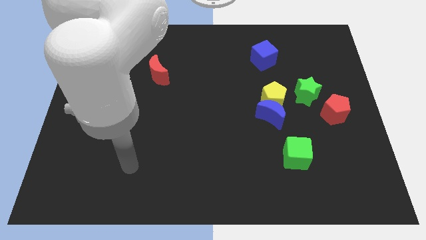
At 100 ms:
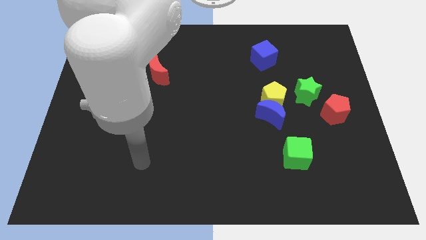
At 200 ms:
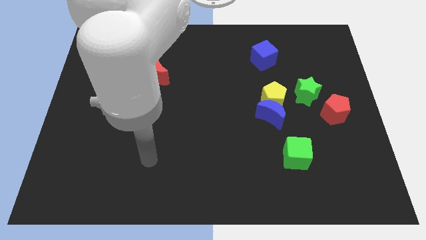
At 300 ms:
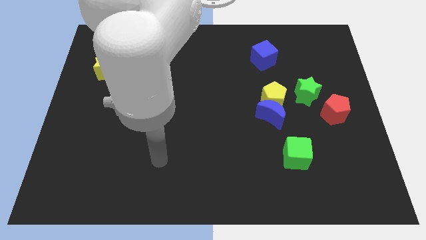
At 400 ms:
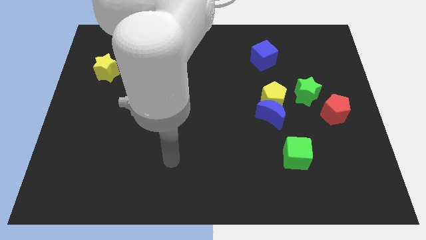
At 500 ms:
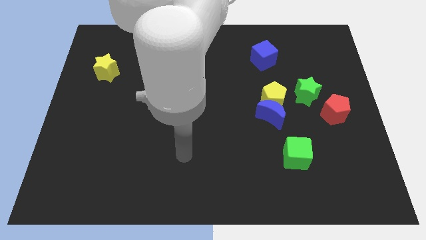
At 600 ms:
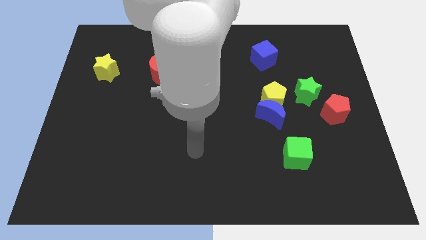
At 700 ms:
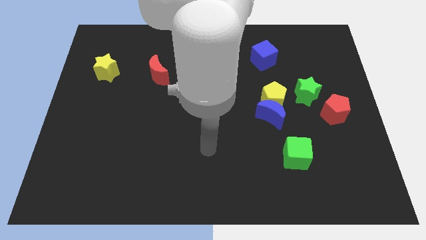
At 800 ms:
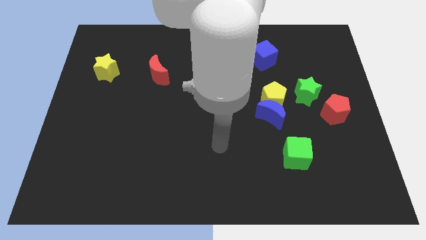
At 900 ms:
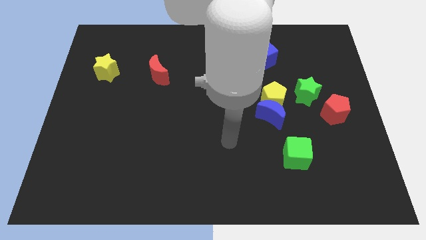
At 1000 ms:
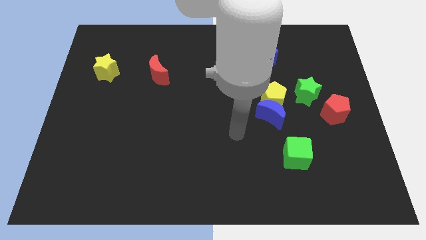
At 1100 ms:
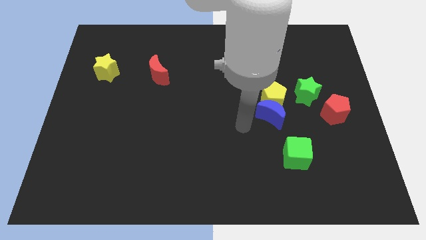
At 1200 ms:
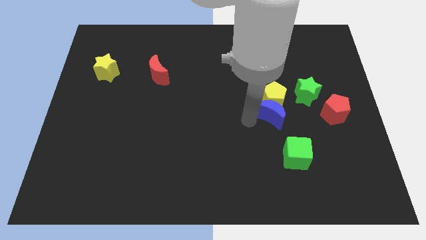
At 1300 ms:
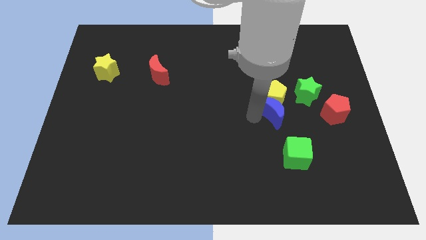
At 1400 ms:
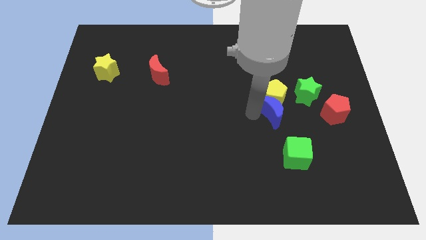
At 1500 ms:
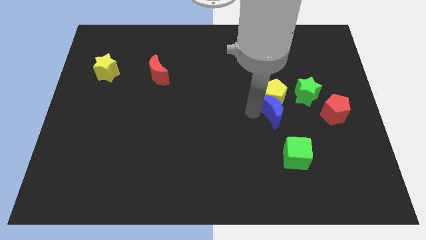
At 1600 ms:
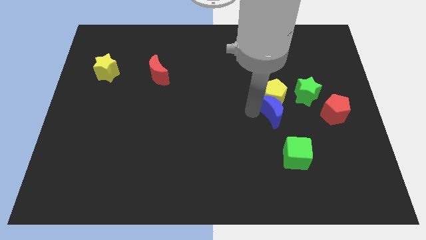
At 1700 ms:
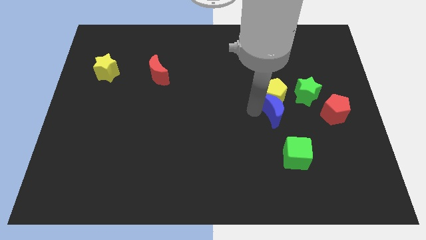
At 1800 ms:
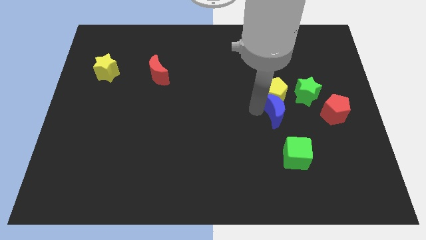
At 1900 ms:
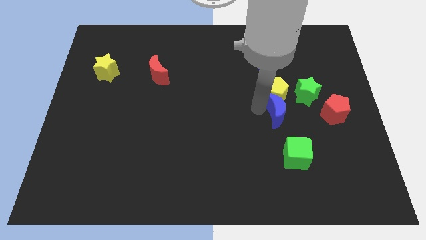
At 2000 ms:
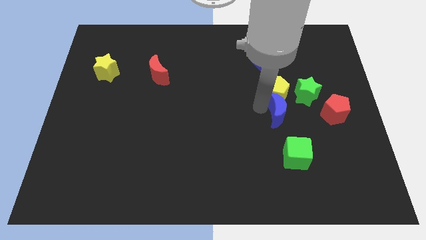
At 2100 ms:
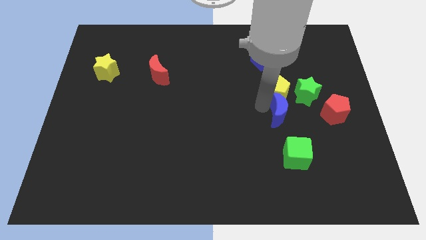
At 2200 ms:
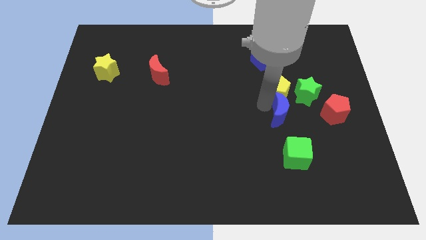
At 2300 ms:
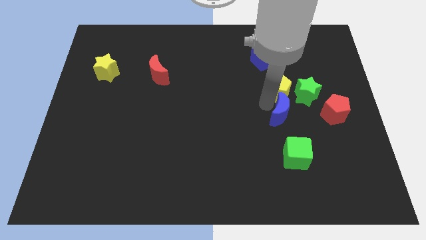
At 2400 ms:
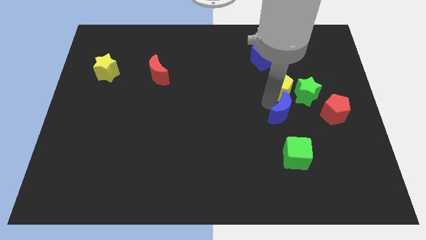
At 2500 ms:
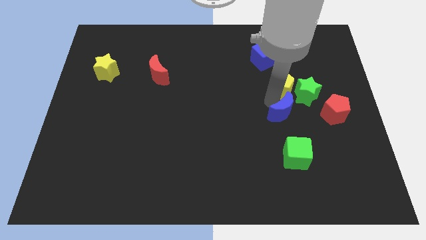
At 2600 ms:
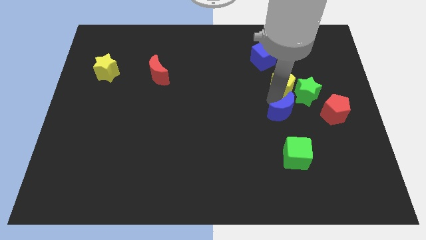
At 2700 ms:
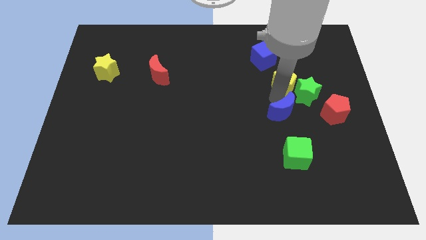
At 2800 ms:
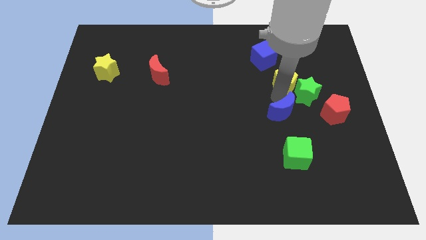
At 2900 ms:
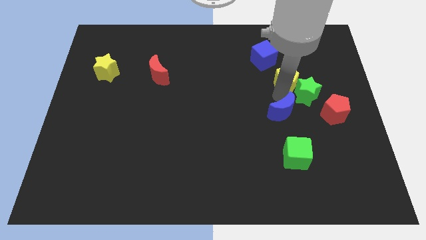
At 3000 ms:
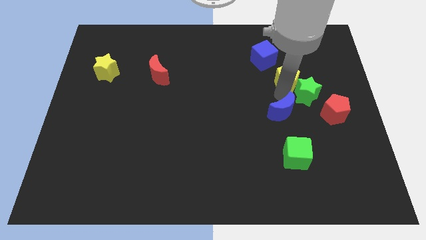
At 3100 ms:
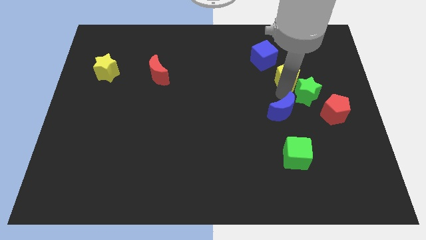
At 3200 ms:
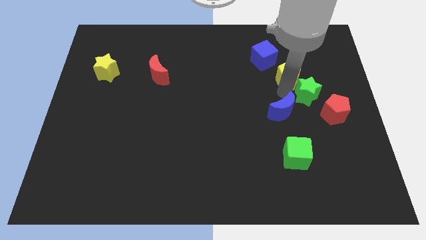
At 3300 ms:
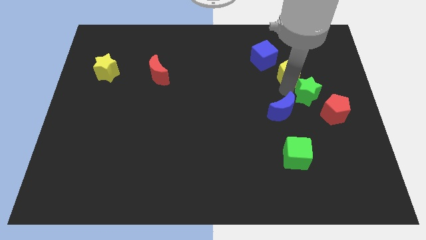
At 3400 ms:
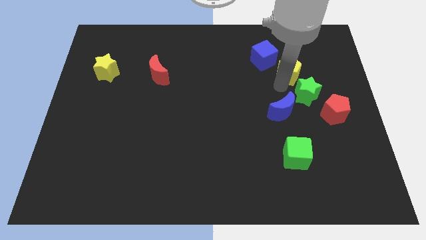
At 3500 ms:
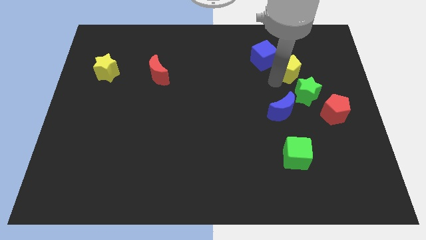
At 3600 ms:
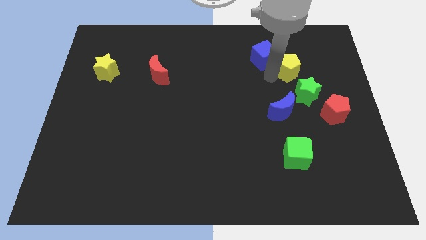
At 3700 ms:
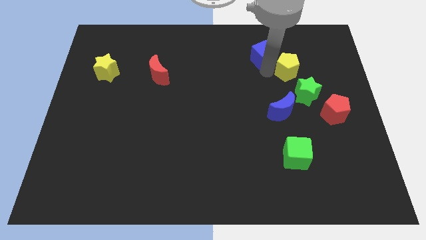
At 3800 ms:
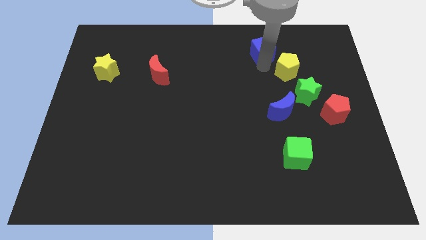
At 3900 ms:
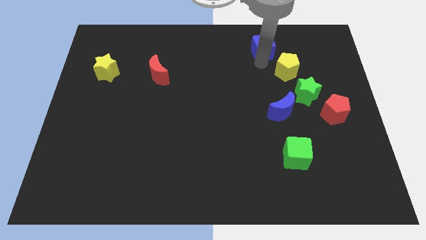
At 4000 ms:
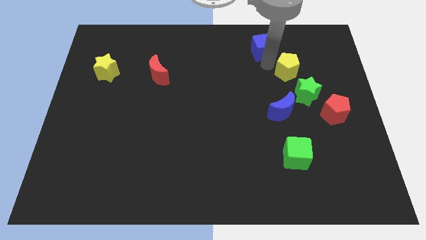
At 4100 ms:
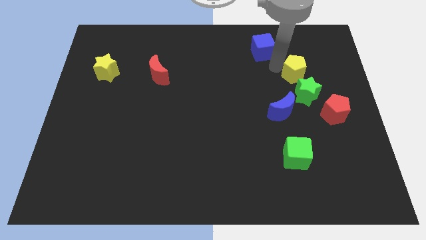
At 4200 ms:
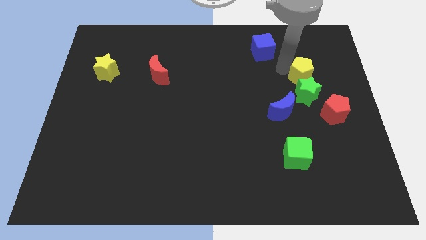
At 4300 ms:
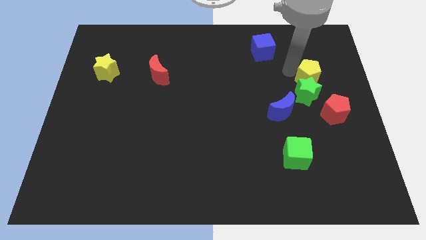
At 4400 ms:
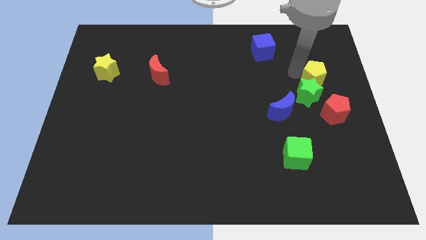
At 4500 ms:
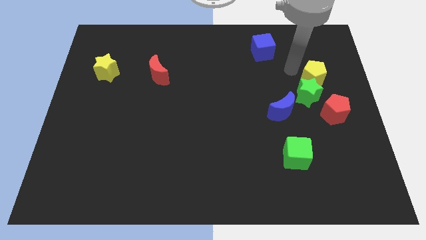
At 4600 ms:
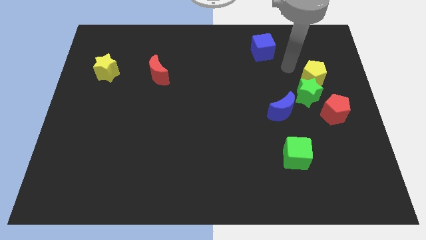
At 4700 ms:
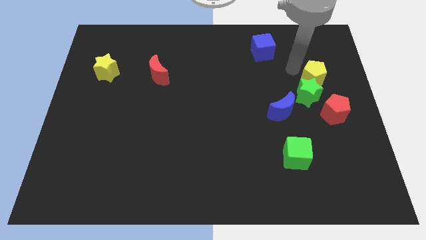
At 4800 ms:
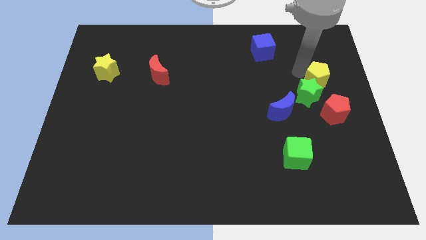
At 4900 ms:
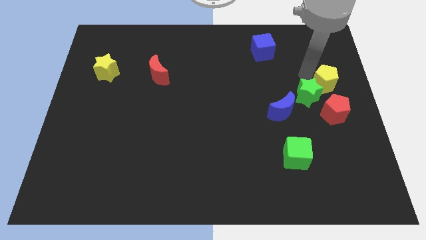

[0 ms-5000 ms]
slide the yellow pentagon to the right side of the board
